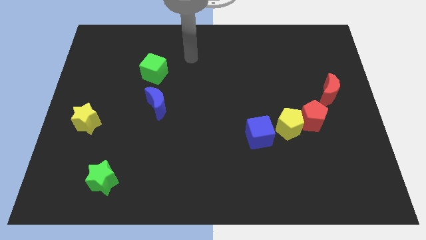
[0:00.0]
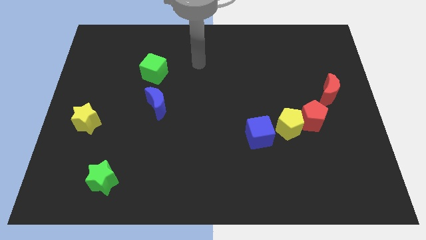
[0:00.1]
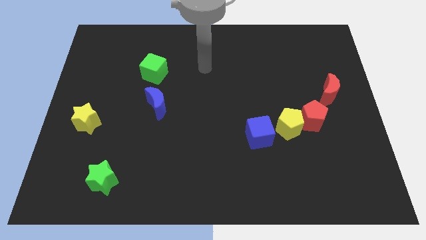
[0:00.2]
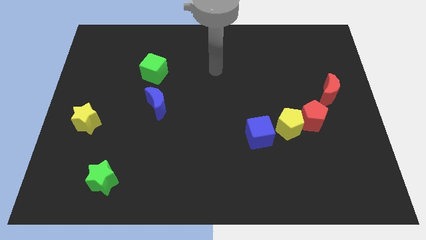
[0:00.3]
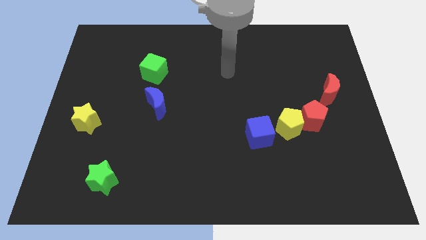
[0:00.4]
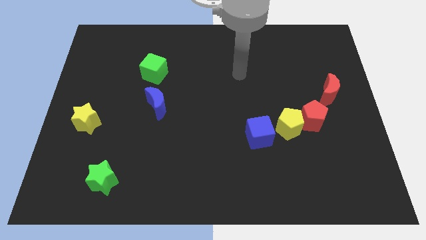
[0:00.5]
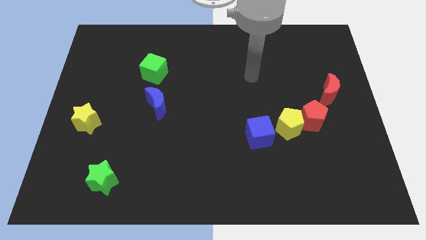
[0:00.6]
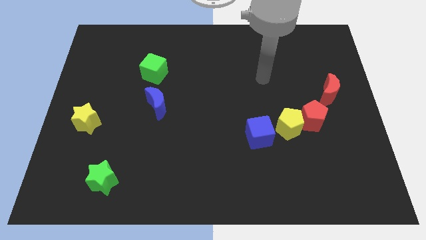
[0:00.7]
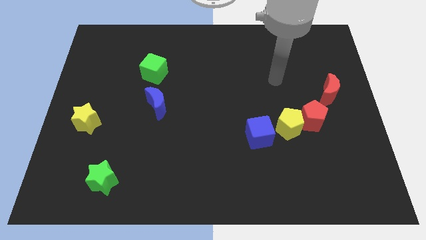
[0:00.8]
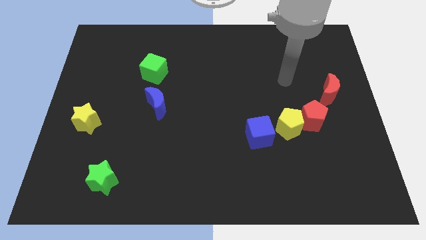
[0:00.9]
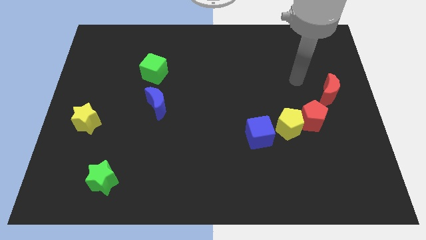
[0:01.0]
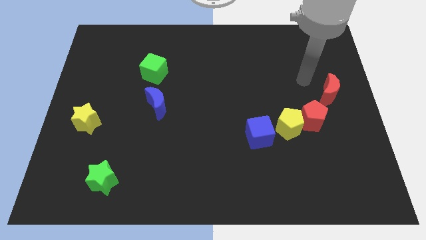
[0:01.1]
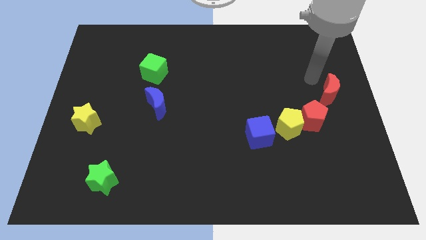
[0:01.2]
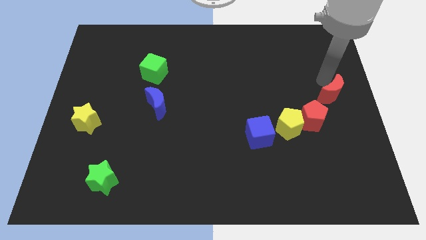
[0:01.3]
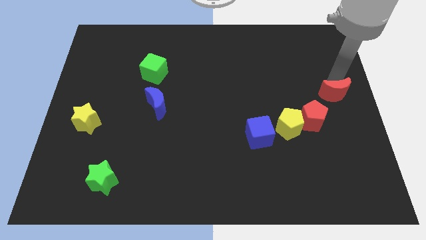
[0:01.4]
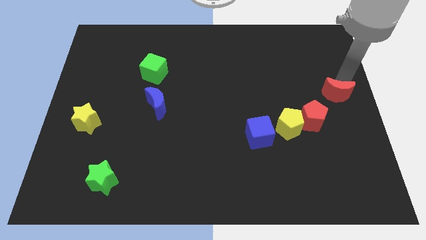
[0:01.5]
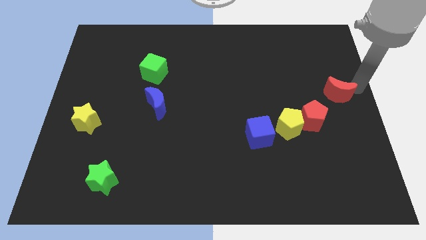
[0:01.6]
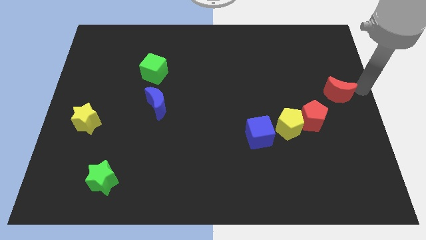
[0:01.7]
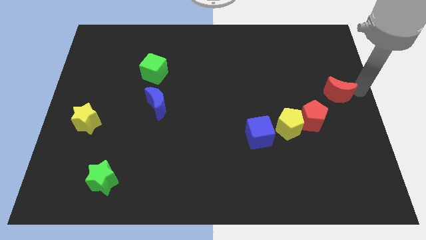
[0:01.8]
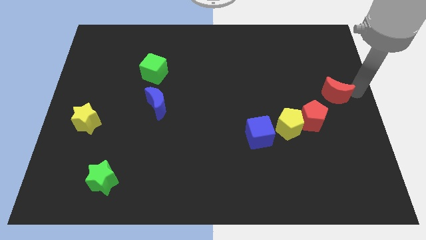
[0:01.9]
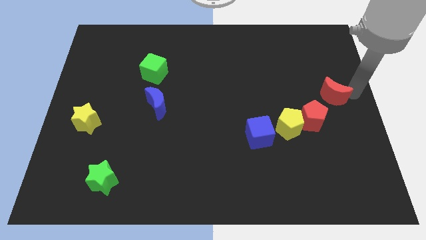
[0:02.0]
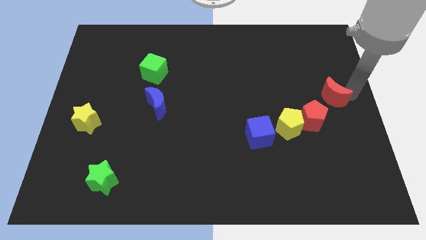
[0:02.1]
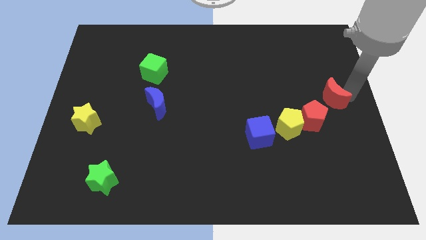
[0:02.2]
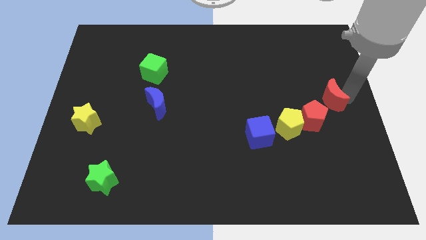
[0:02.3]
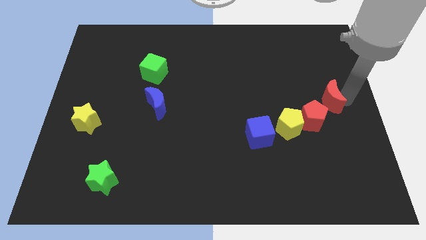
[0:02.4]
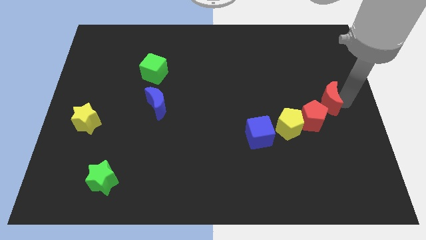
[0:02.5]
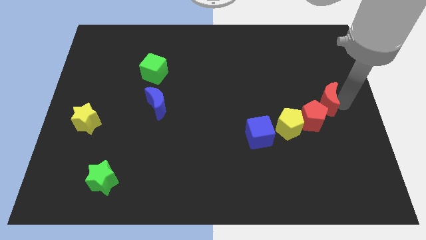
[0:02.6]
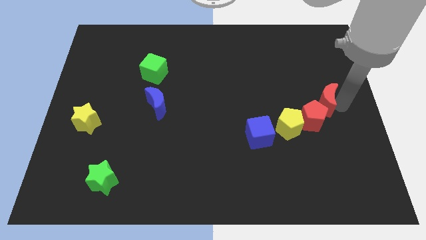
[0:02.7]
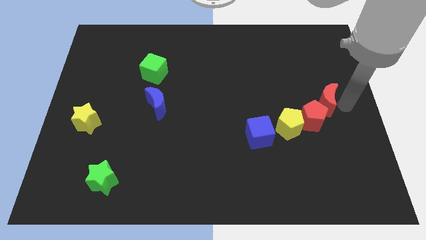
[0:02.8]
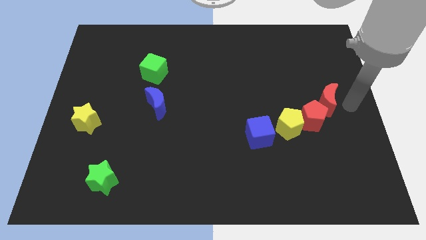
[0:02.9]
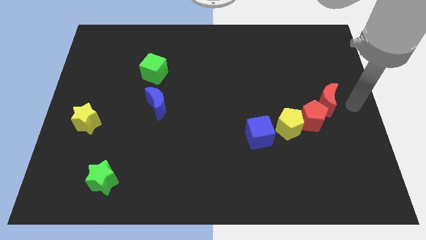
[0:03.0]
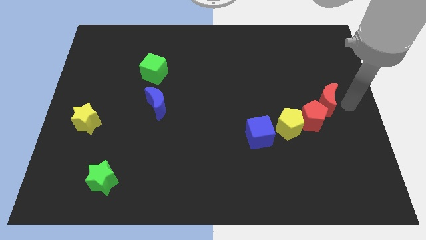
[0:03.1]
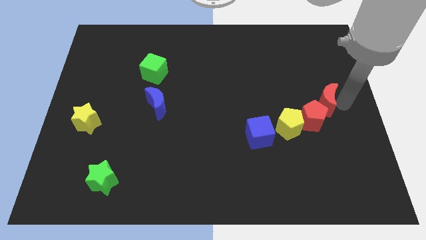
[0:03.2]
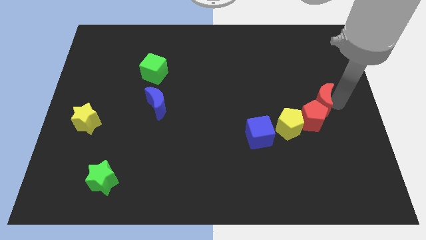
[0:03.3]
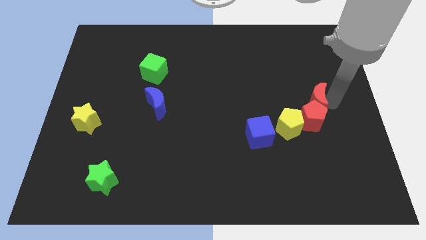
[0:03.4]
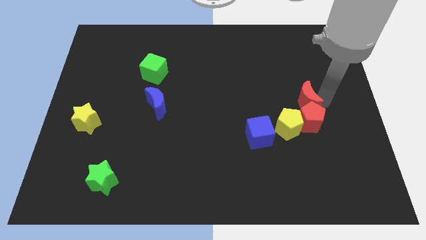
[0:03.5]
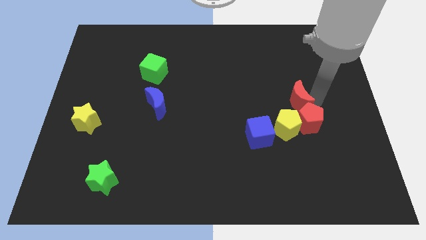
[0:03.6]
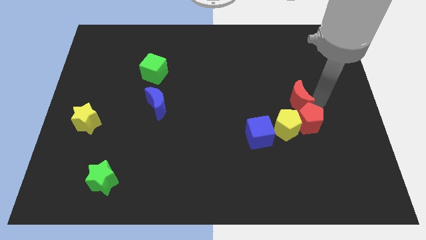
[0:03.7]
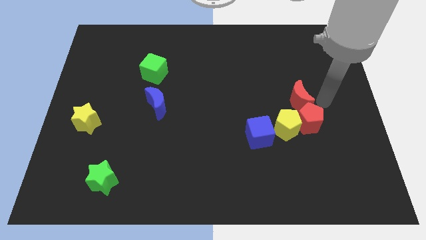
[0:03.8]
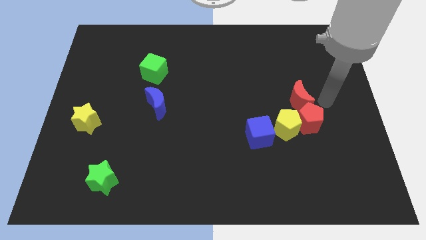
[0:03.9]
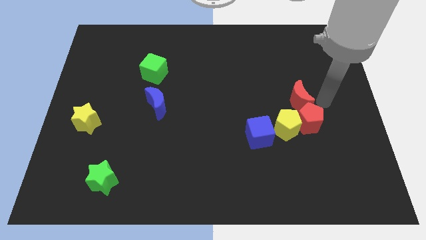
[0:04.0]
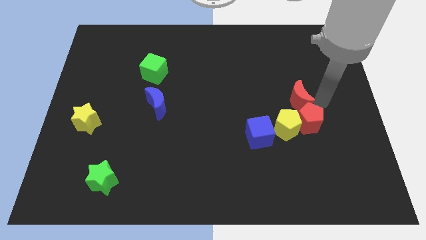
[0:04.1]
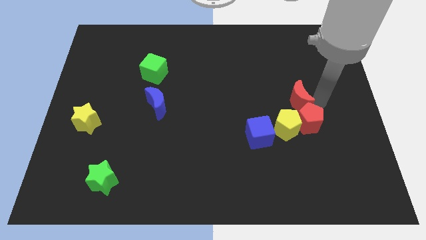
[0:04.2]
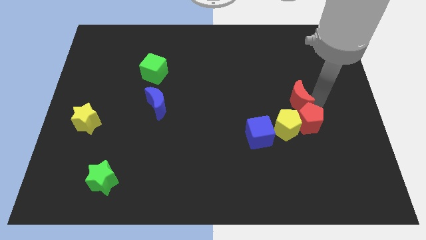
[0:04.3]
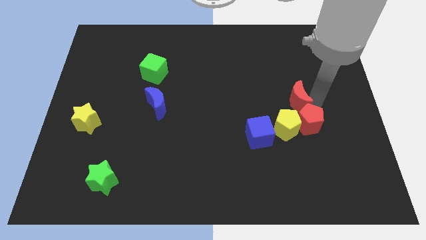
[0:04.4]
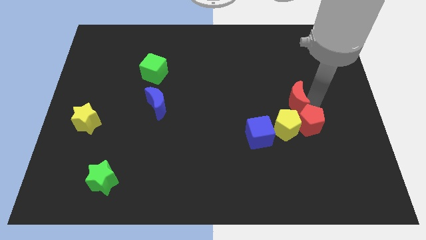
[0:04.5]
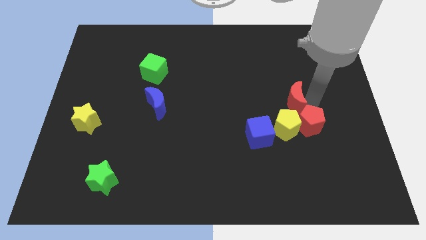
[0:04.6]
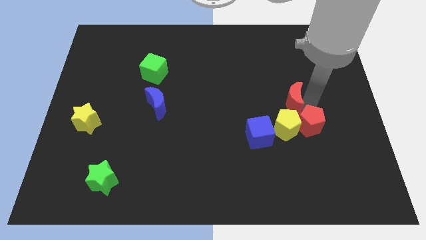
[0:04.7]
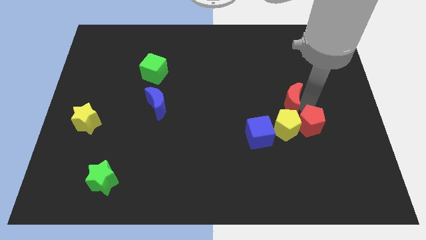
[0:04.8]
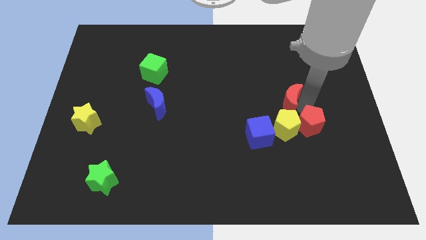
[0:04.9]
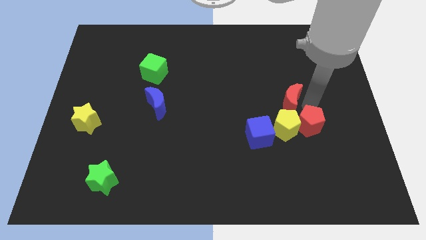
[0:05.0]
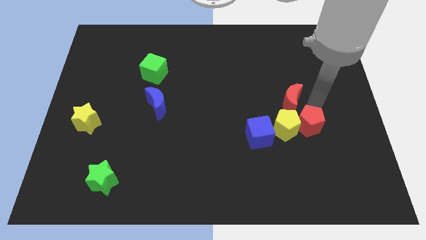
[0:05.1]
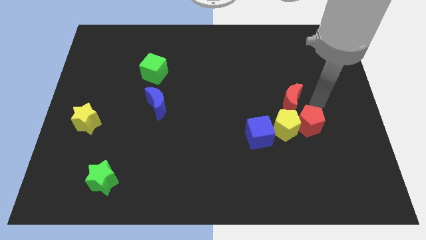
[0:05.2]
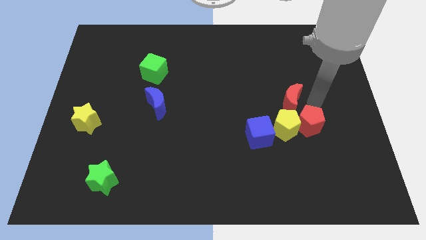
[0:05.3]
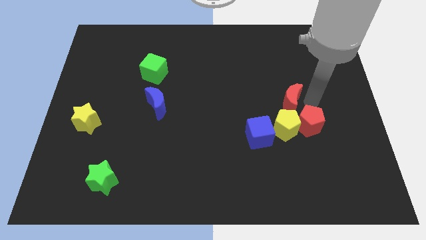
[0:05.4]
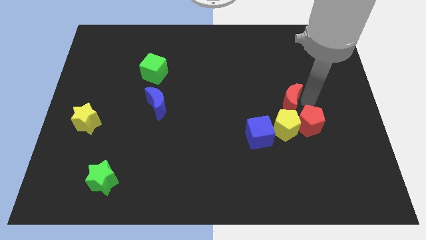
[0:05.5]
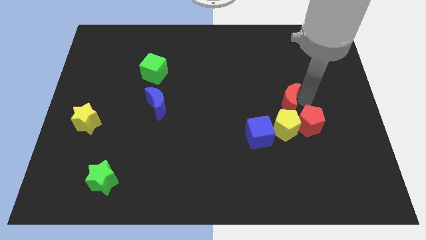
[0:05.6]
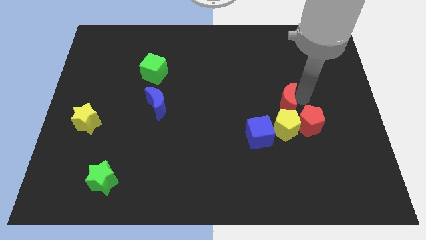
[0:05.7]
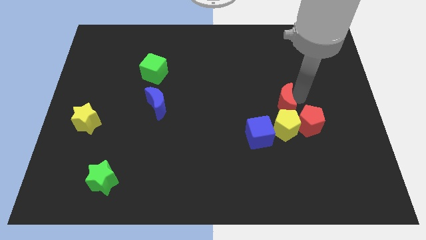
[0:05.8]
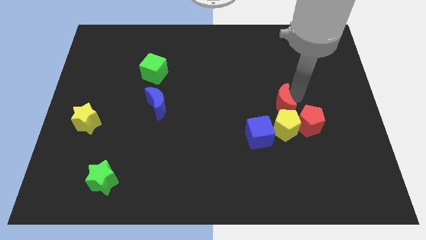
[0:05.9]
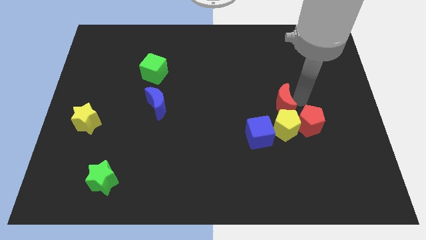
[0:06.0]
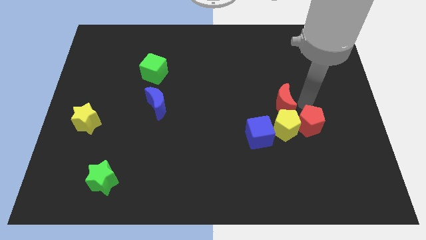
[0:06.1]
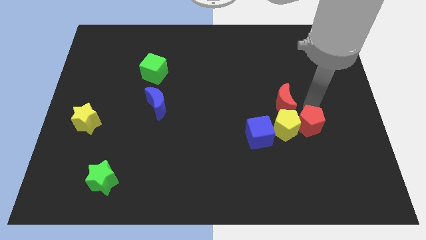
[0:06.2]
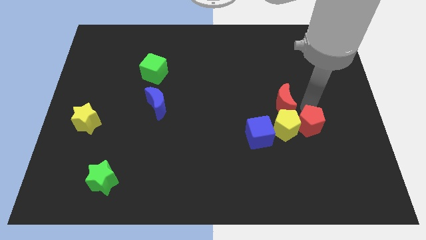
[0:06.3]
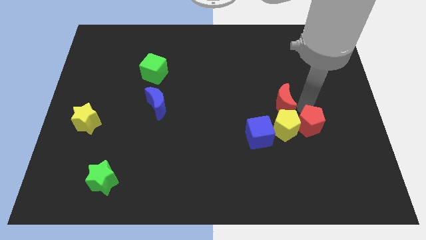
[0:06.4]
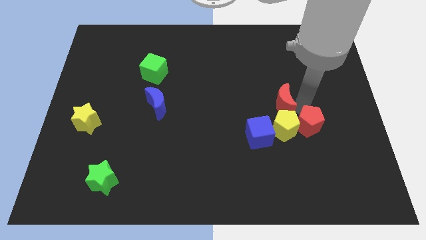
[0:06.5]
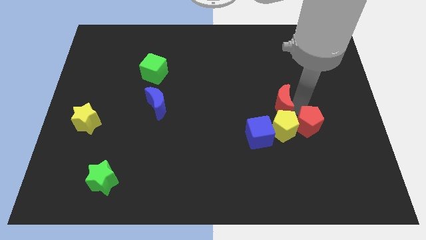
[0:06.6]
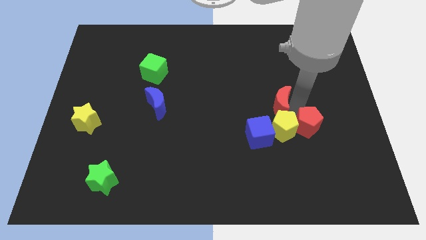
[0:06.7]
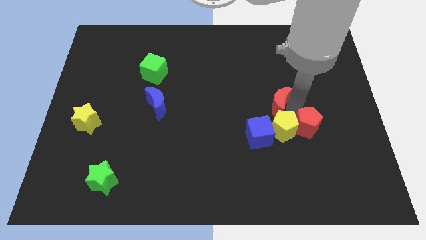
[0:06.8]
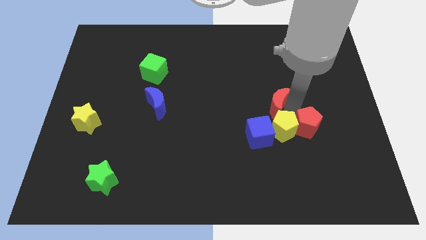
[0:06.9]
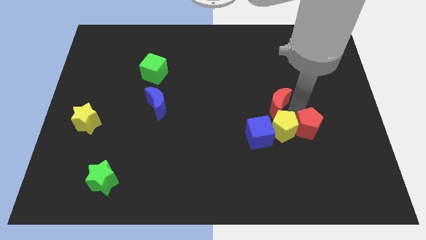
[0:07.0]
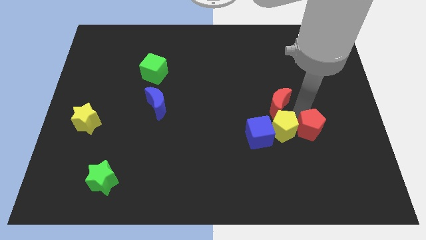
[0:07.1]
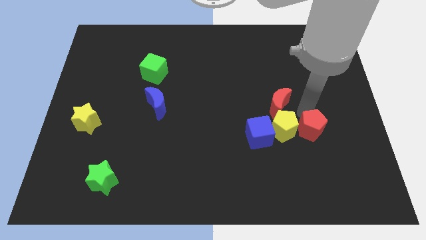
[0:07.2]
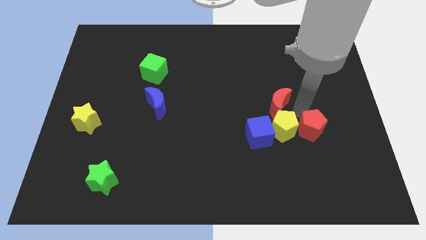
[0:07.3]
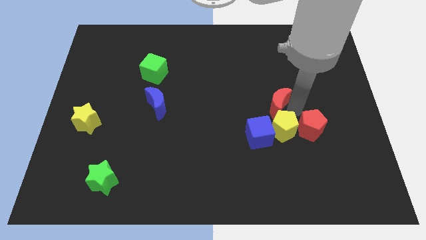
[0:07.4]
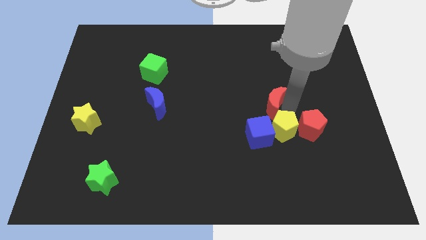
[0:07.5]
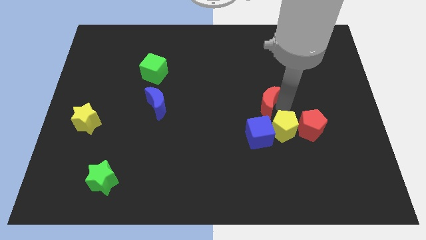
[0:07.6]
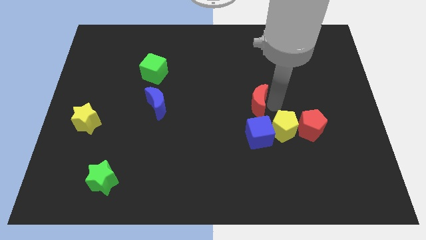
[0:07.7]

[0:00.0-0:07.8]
move the red moon to the middle of the board
